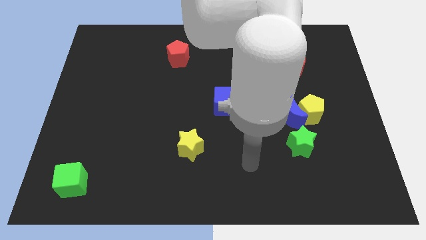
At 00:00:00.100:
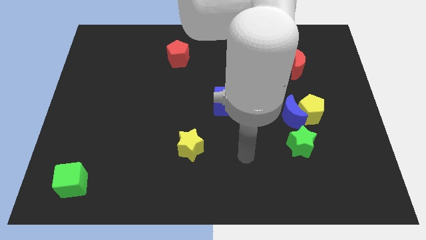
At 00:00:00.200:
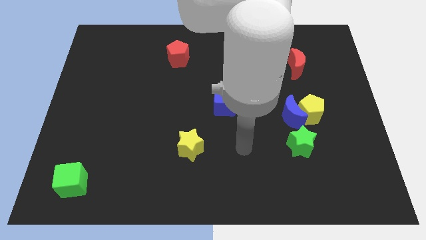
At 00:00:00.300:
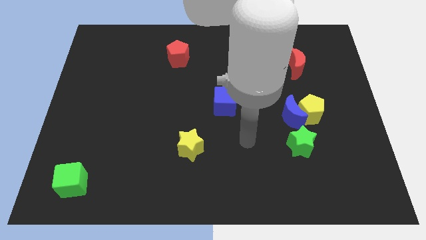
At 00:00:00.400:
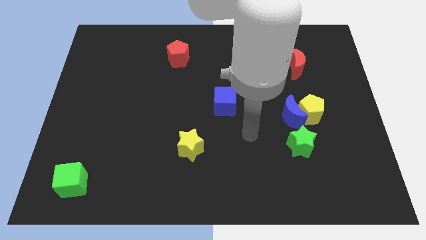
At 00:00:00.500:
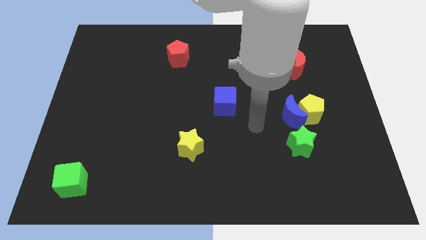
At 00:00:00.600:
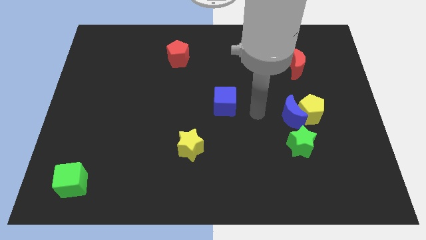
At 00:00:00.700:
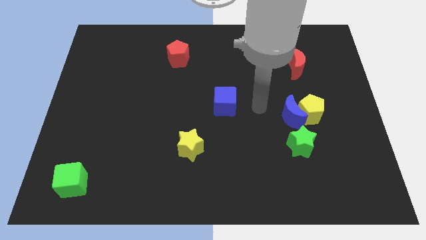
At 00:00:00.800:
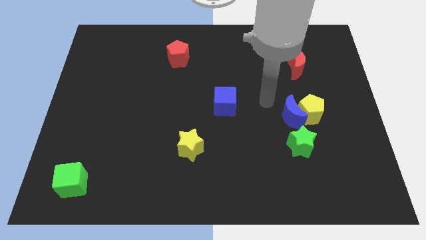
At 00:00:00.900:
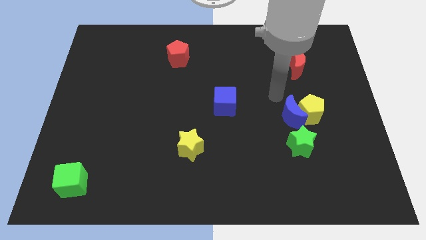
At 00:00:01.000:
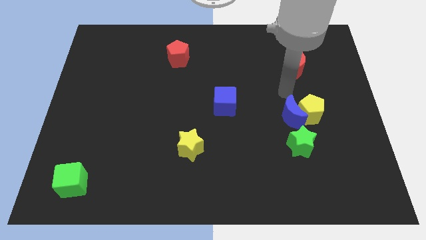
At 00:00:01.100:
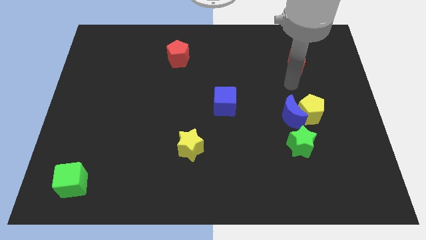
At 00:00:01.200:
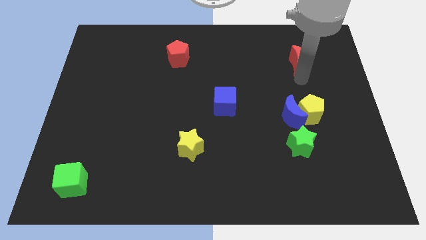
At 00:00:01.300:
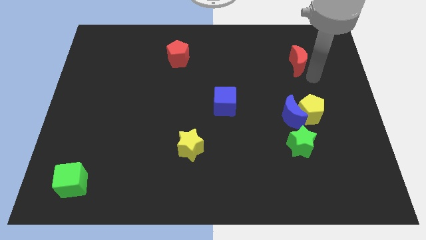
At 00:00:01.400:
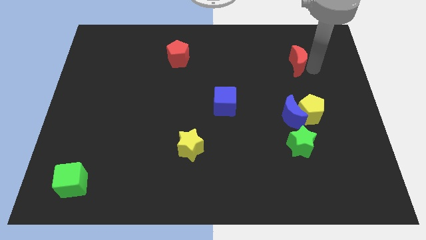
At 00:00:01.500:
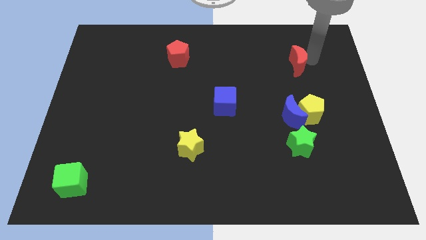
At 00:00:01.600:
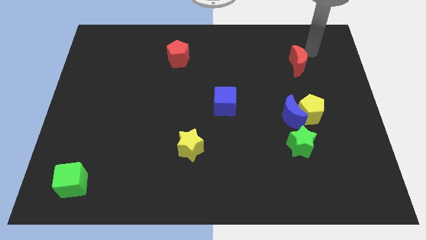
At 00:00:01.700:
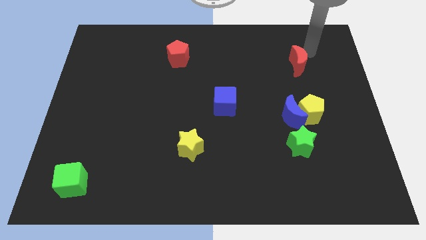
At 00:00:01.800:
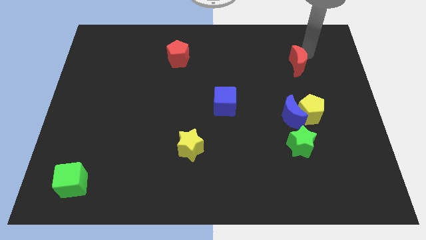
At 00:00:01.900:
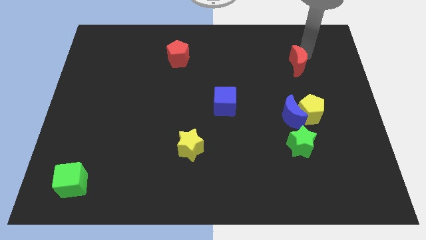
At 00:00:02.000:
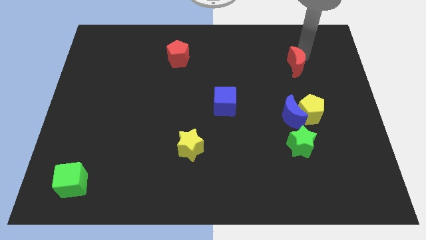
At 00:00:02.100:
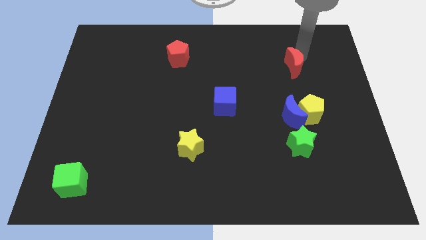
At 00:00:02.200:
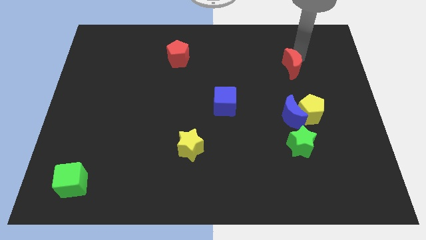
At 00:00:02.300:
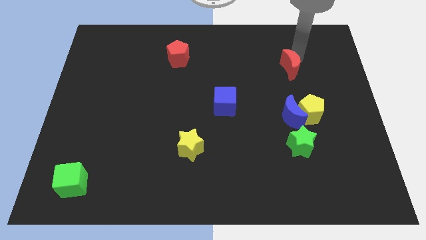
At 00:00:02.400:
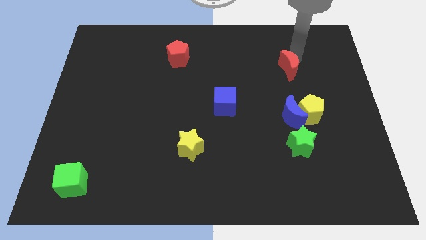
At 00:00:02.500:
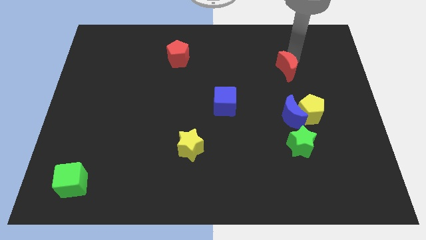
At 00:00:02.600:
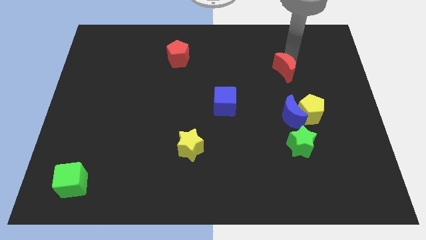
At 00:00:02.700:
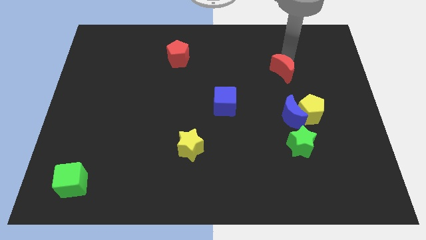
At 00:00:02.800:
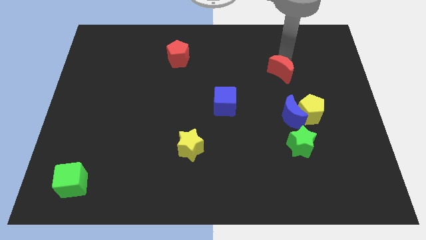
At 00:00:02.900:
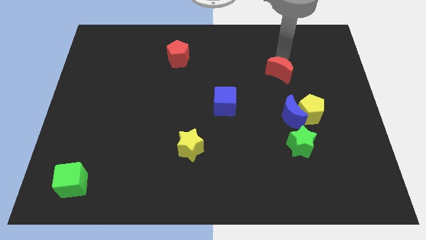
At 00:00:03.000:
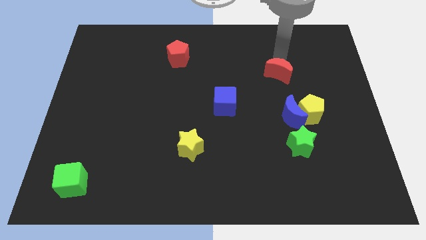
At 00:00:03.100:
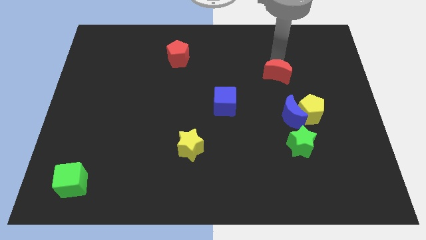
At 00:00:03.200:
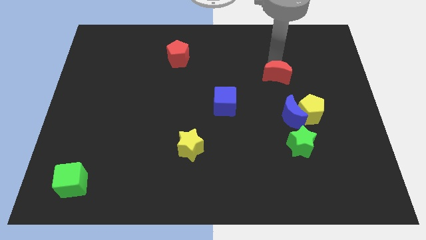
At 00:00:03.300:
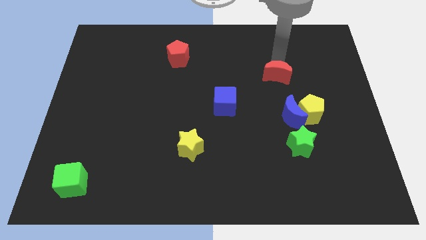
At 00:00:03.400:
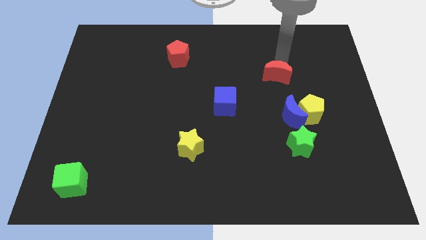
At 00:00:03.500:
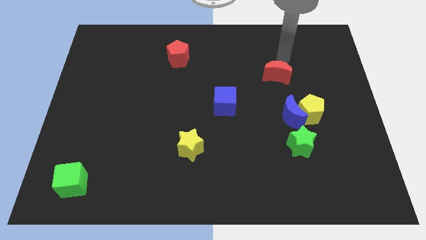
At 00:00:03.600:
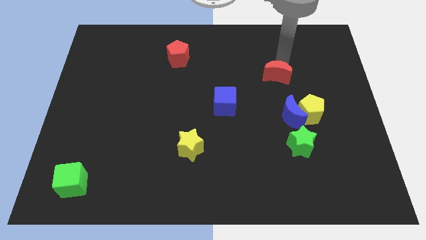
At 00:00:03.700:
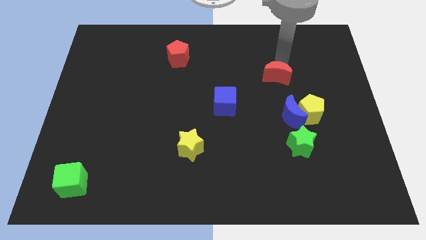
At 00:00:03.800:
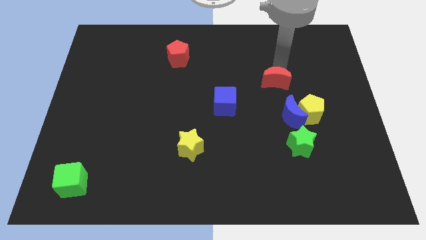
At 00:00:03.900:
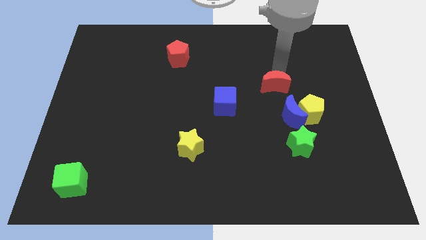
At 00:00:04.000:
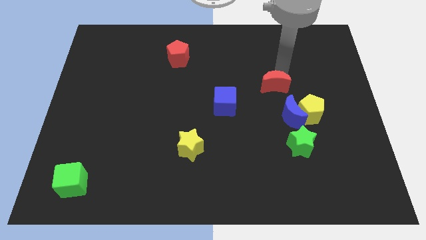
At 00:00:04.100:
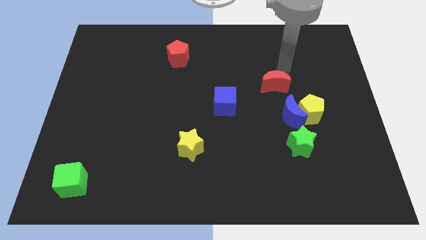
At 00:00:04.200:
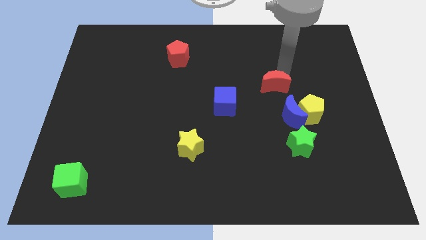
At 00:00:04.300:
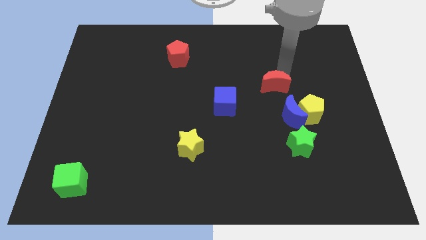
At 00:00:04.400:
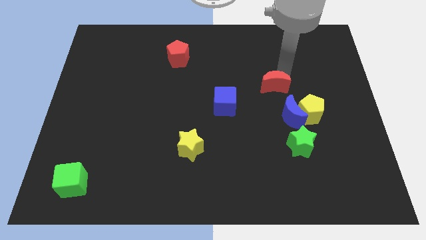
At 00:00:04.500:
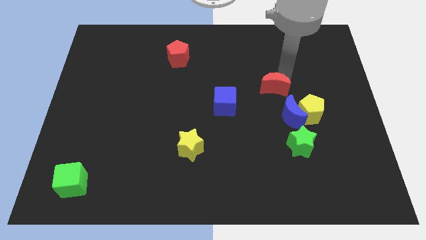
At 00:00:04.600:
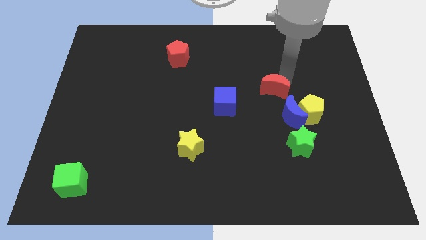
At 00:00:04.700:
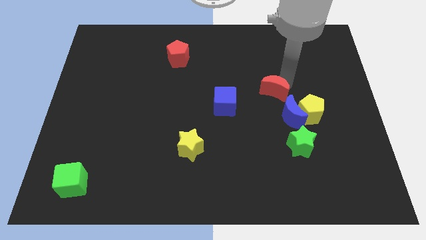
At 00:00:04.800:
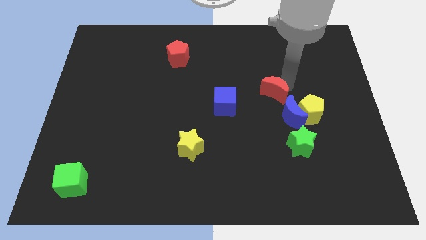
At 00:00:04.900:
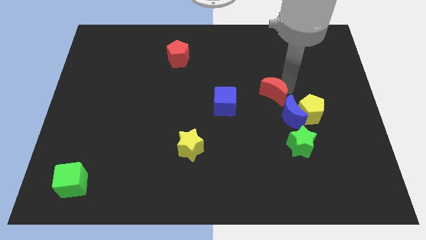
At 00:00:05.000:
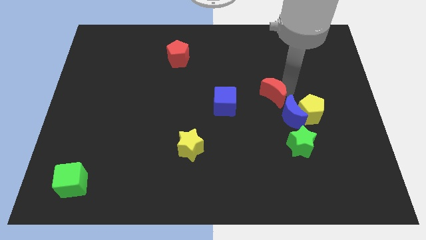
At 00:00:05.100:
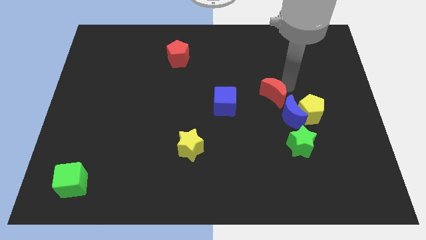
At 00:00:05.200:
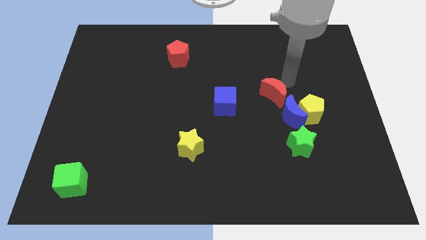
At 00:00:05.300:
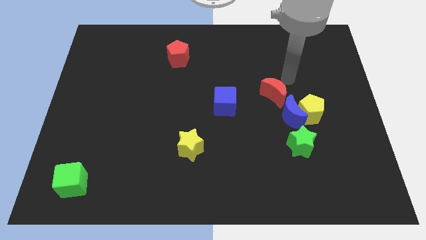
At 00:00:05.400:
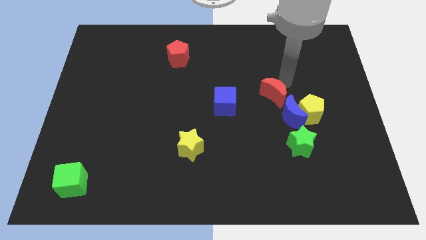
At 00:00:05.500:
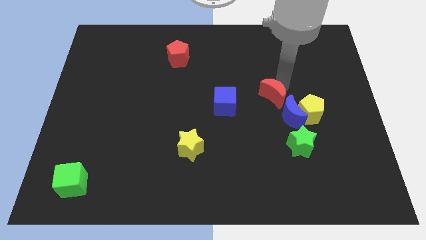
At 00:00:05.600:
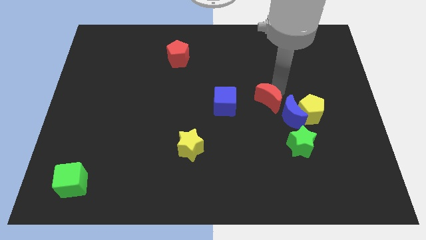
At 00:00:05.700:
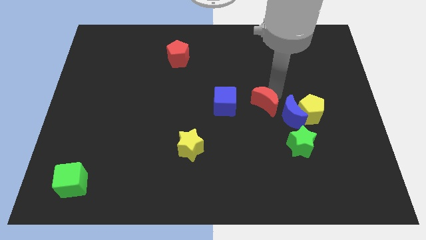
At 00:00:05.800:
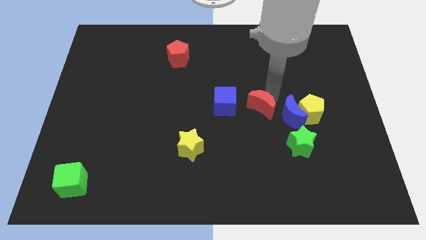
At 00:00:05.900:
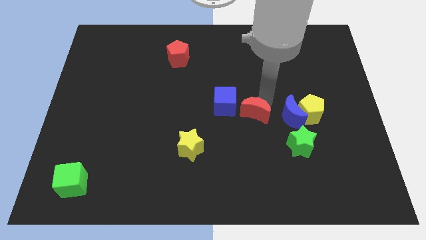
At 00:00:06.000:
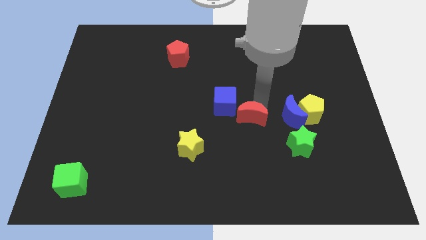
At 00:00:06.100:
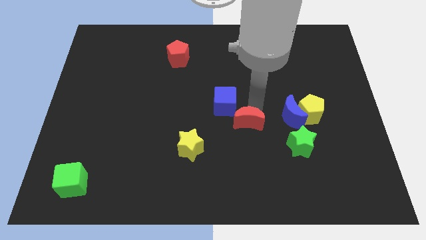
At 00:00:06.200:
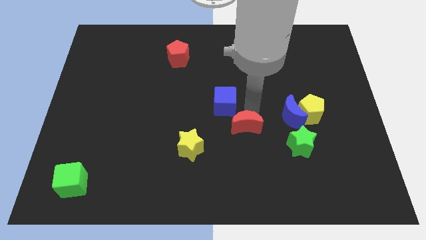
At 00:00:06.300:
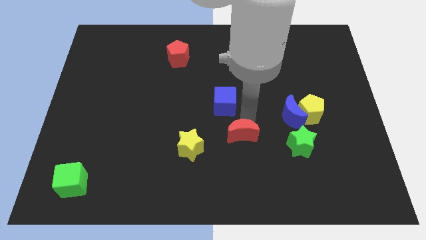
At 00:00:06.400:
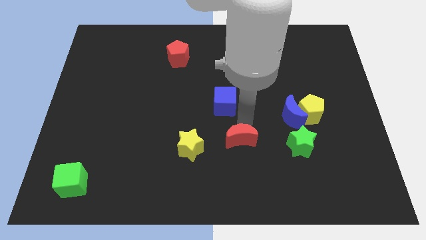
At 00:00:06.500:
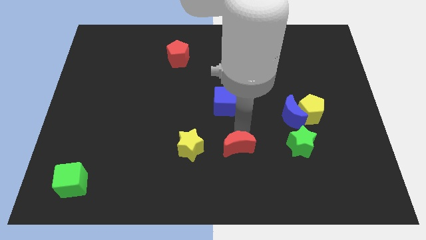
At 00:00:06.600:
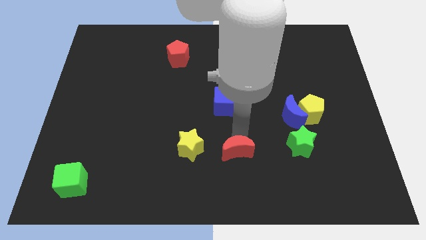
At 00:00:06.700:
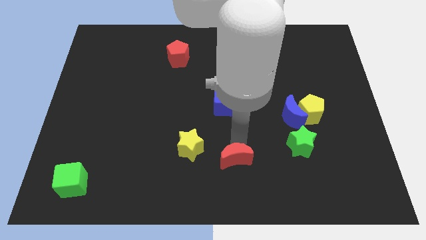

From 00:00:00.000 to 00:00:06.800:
move the red moon to the bottom
